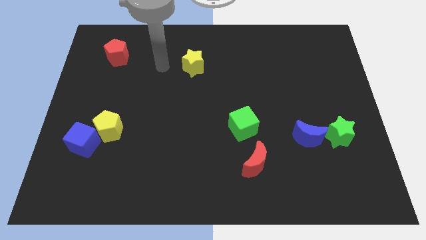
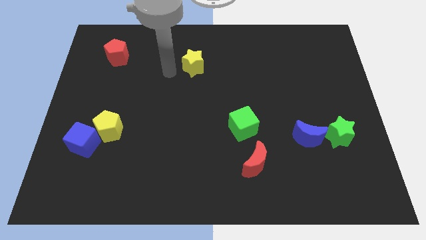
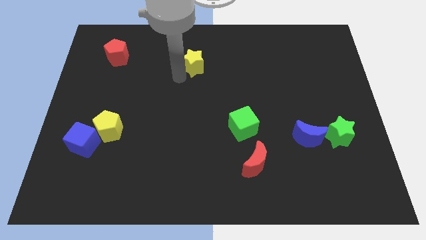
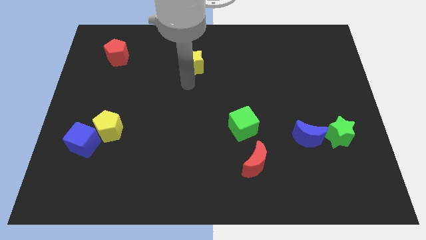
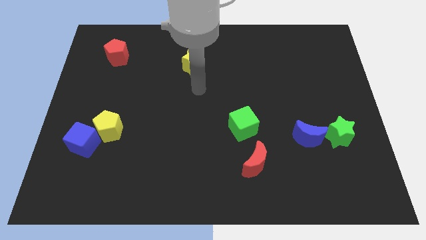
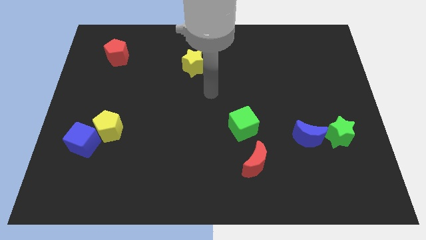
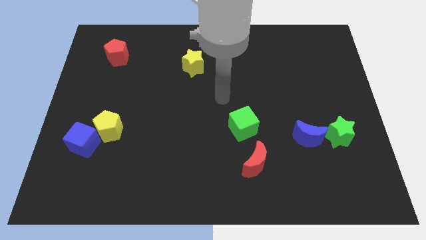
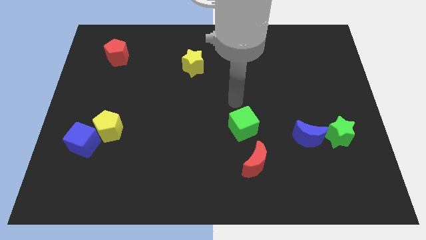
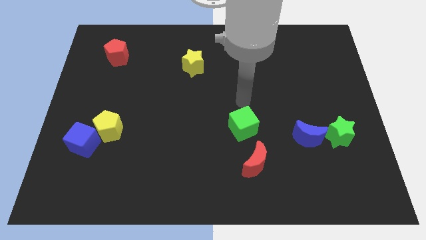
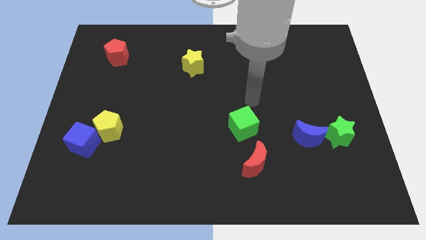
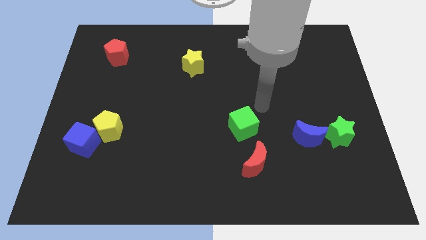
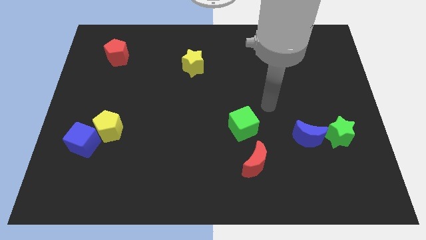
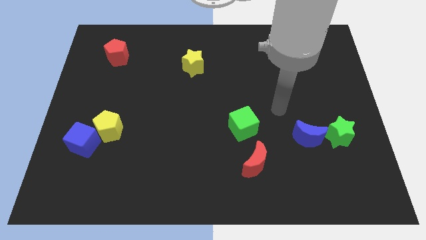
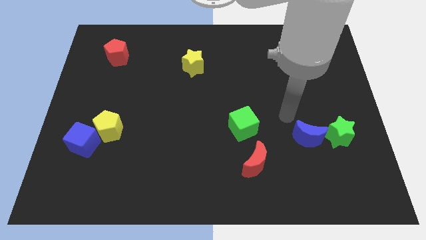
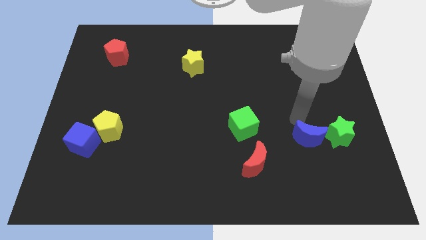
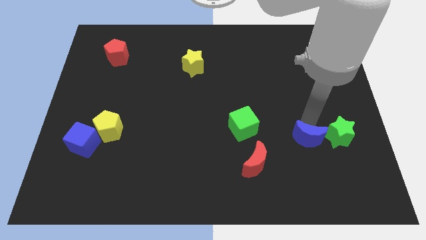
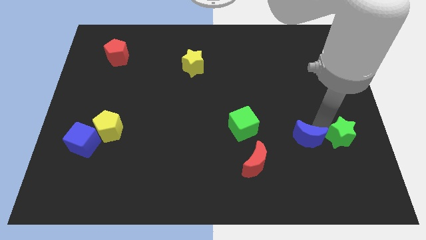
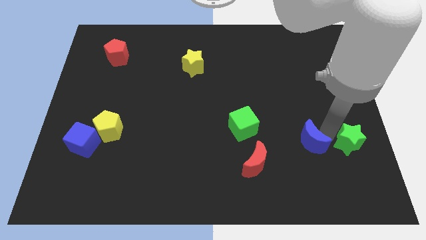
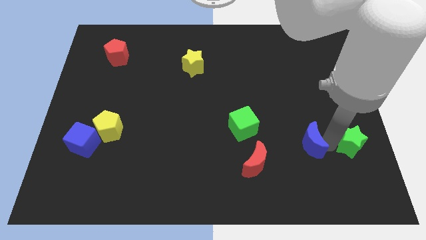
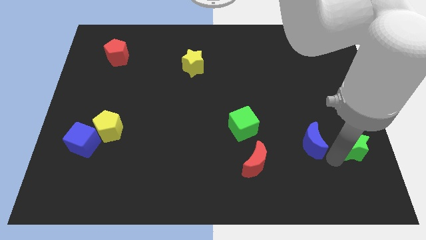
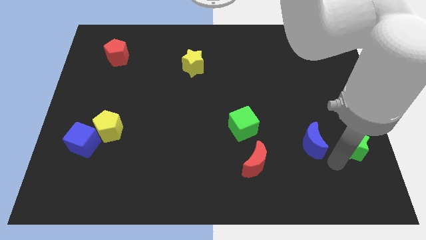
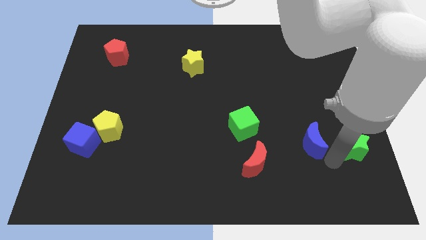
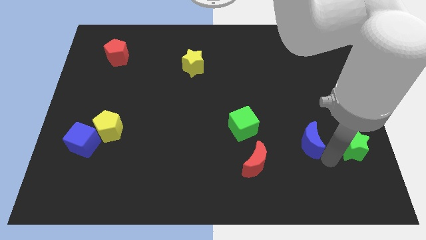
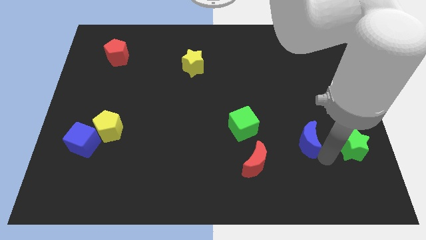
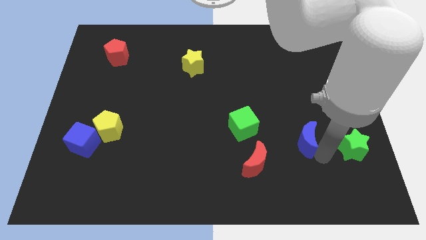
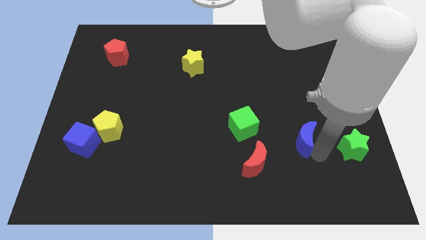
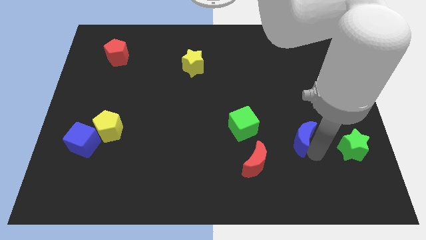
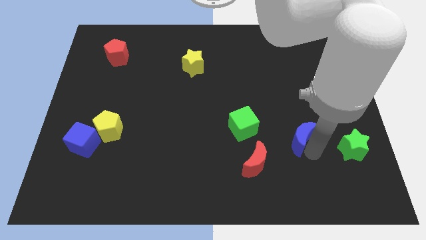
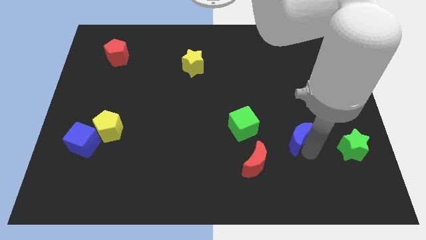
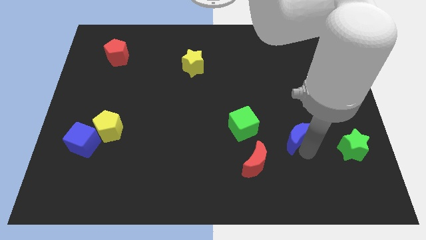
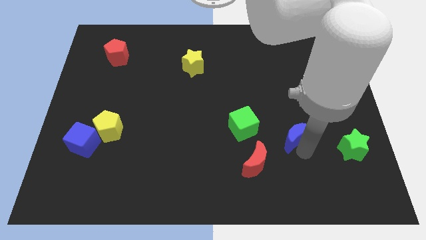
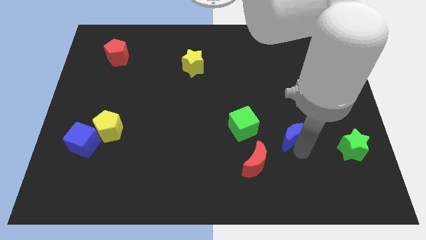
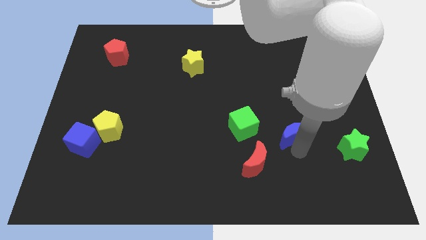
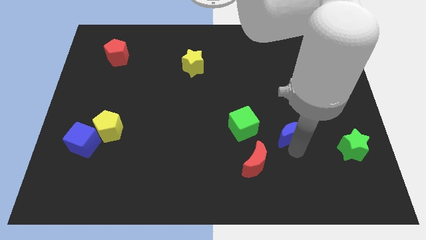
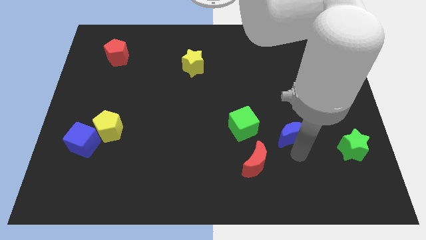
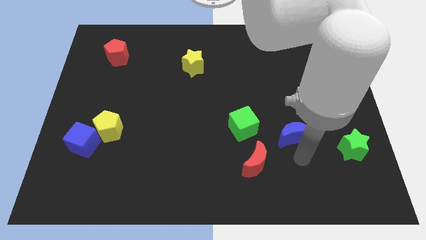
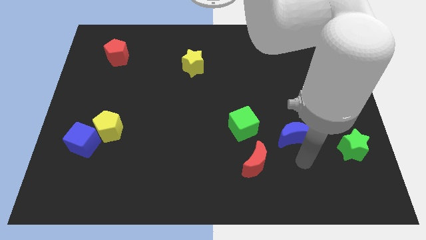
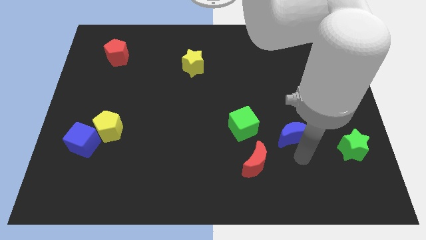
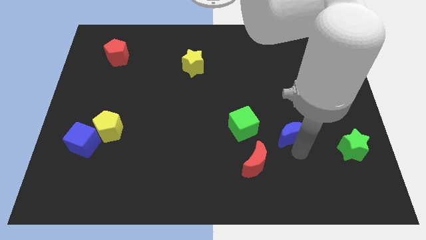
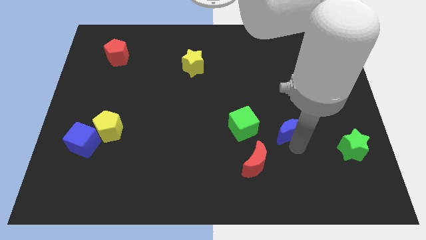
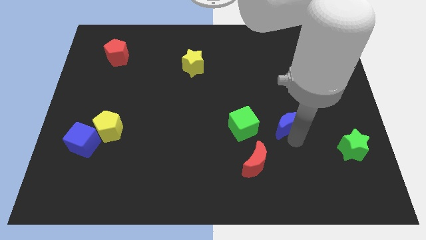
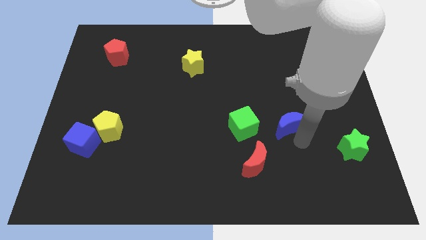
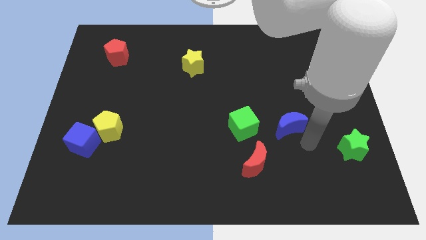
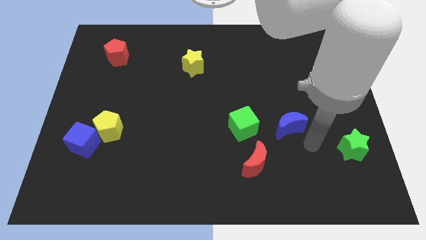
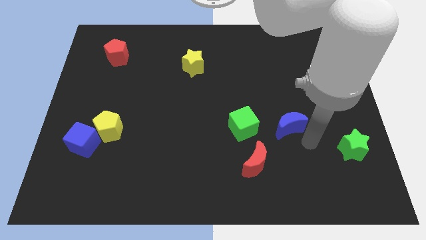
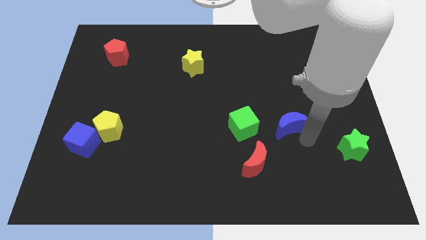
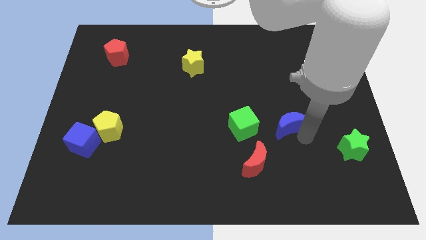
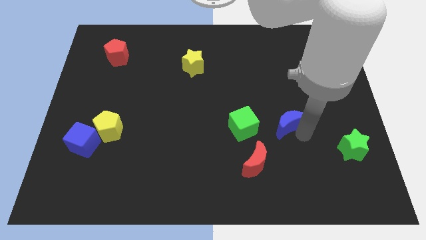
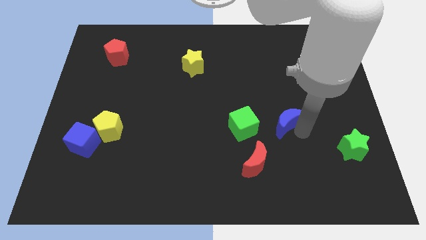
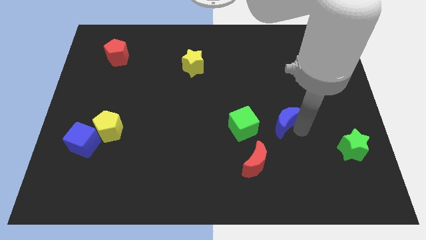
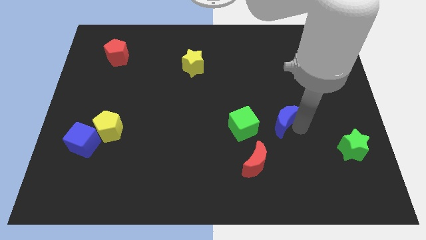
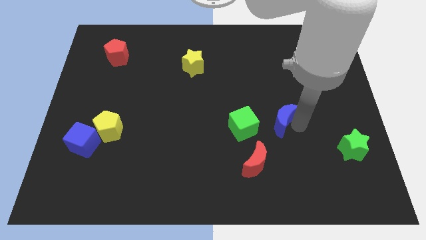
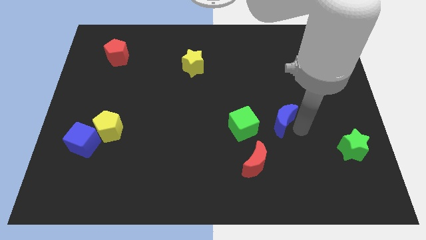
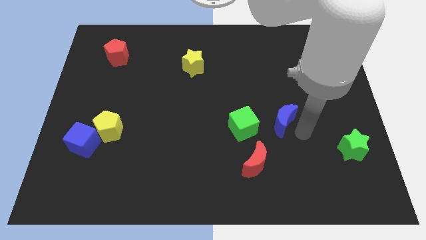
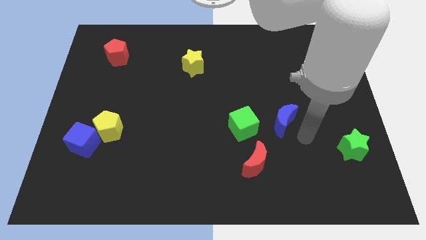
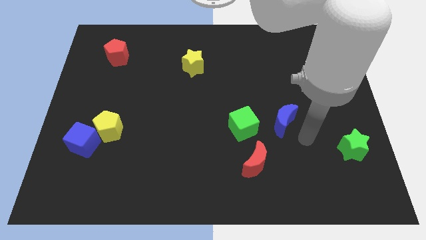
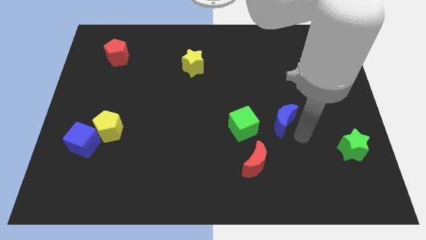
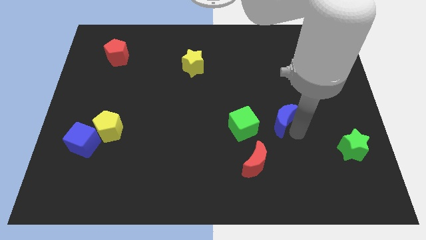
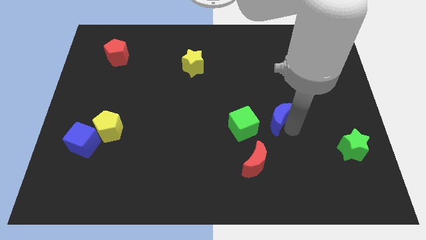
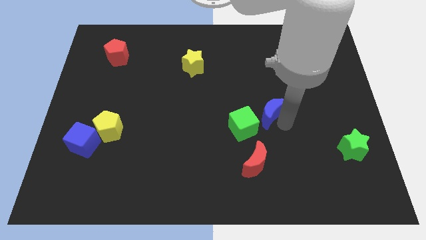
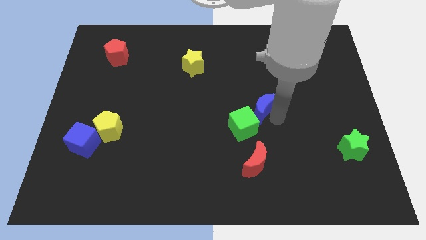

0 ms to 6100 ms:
slide the blue moon to the center
